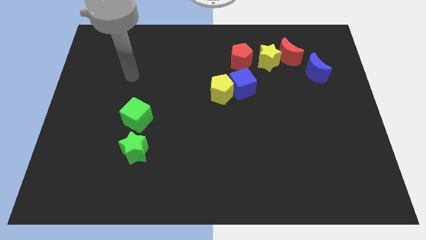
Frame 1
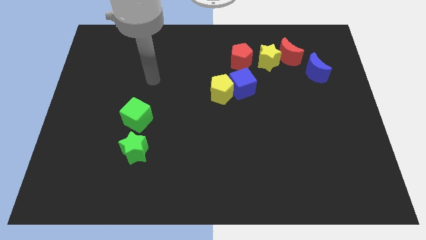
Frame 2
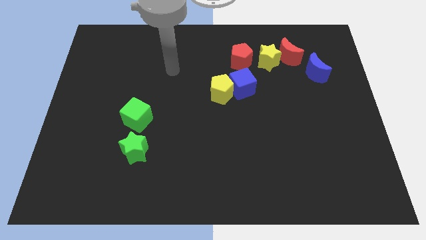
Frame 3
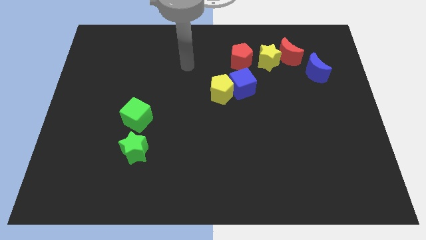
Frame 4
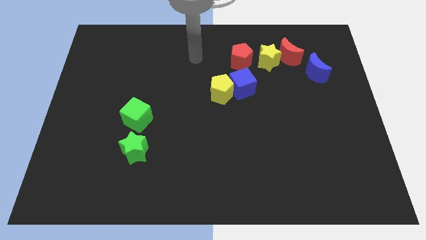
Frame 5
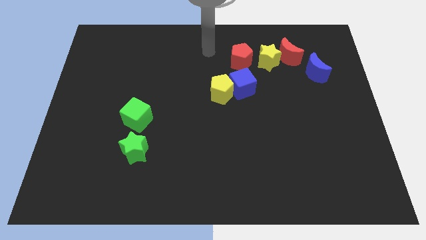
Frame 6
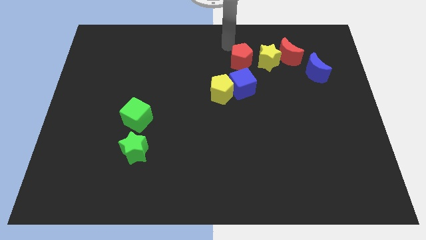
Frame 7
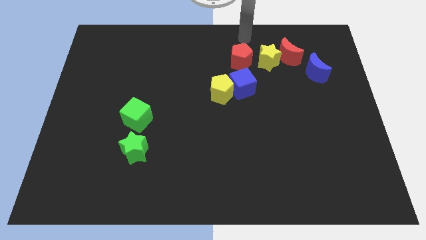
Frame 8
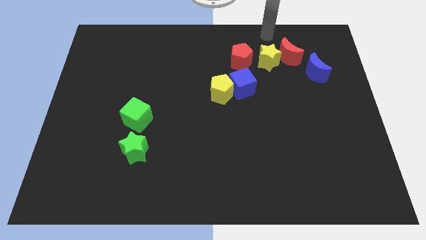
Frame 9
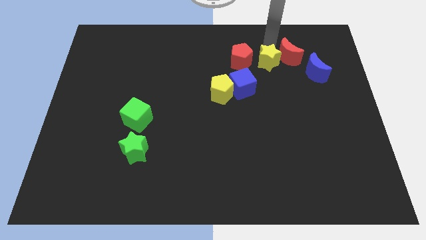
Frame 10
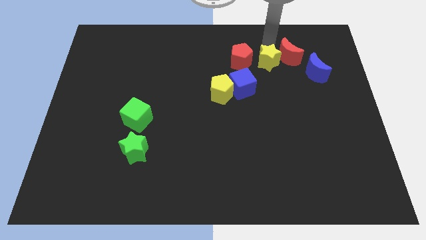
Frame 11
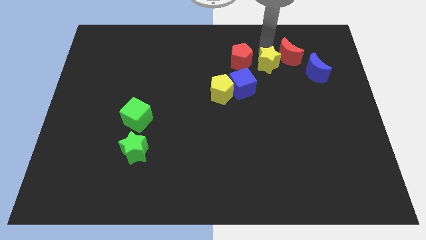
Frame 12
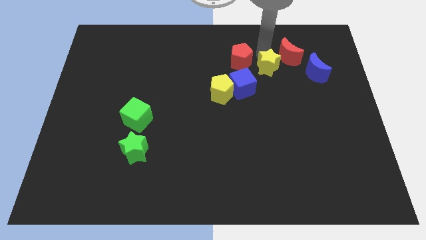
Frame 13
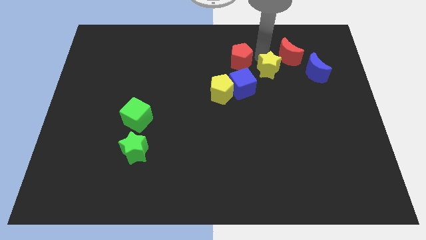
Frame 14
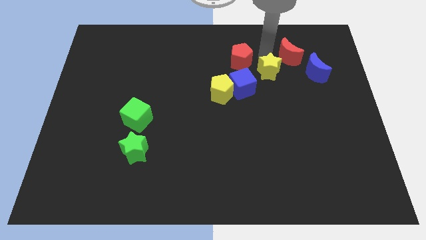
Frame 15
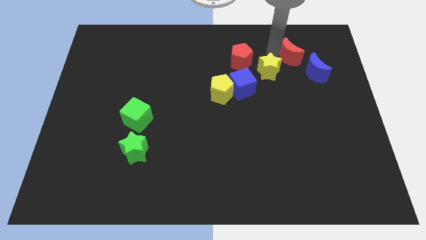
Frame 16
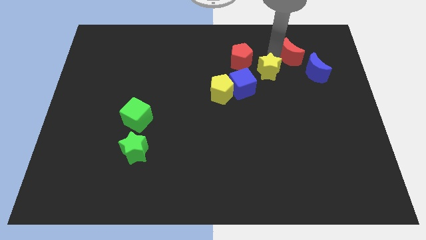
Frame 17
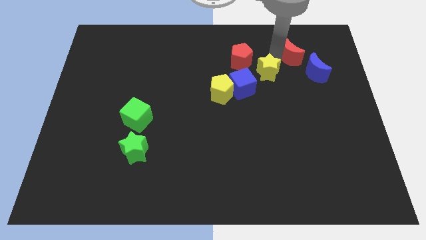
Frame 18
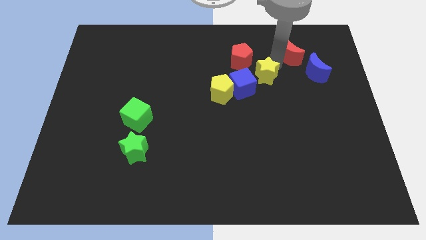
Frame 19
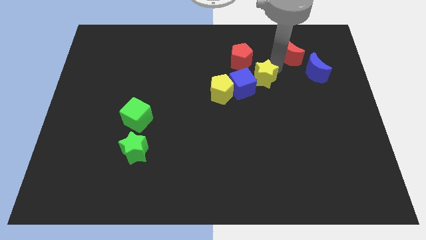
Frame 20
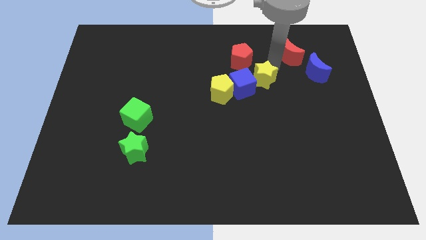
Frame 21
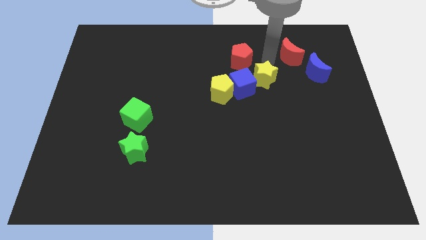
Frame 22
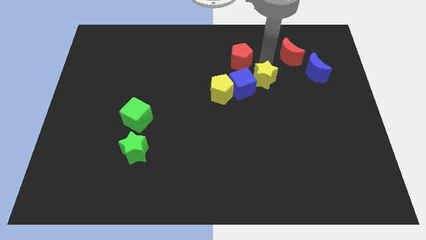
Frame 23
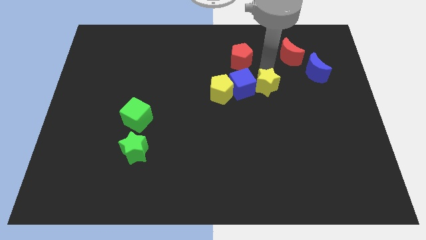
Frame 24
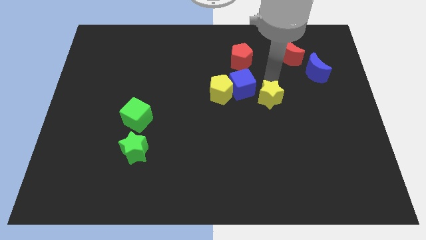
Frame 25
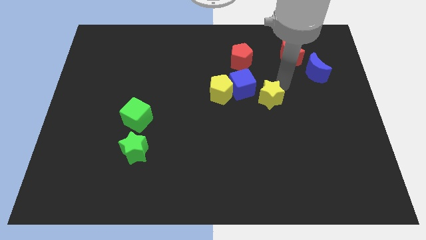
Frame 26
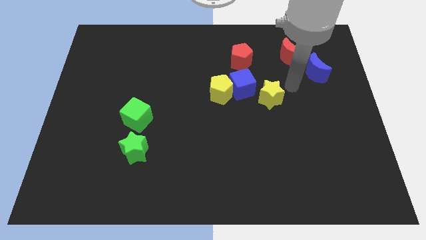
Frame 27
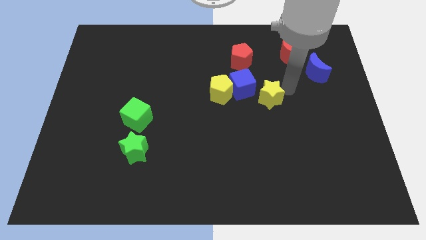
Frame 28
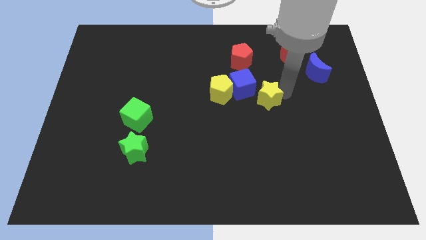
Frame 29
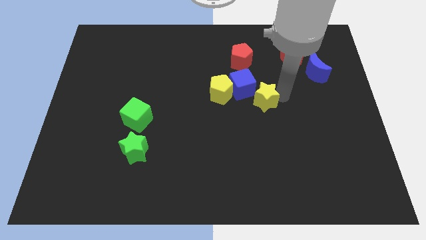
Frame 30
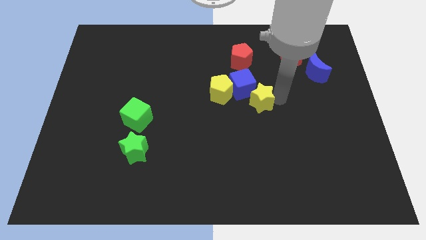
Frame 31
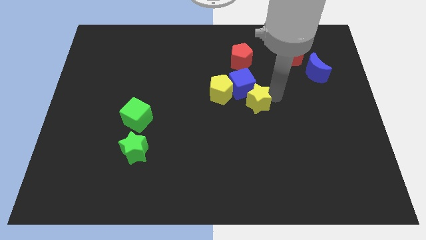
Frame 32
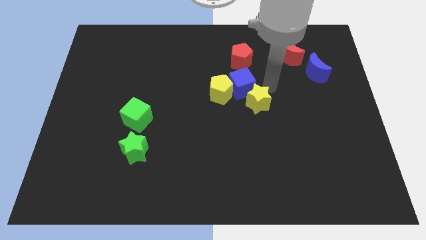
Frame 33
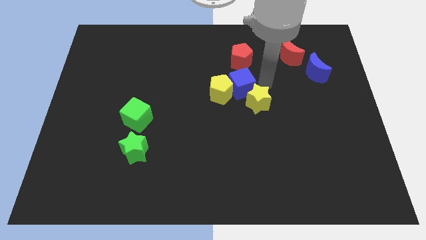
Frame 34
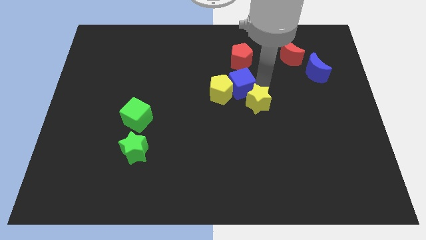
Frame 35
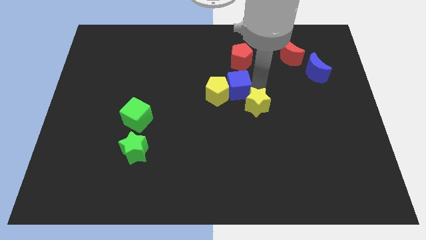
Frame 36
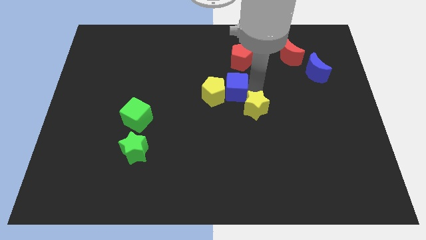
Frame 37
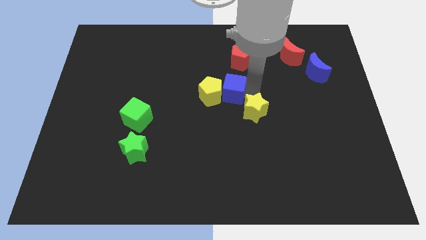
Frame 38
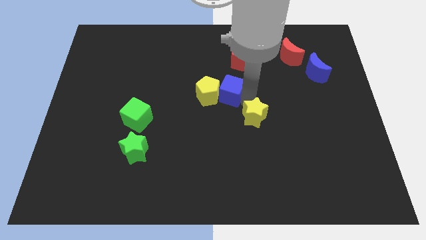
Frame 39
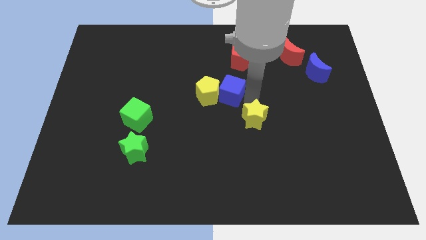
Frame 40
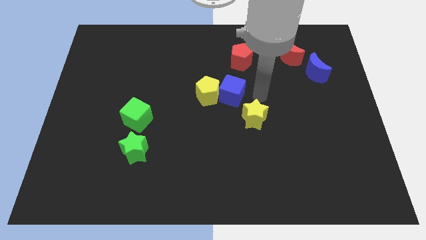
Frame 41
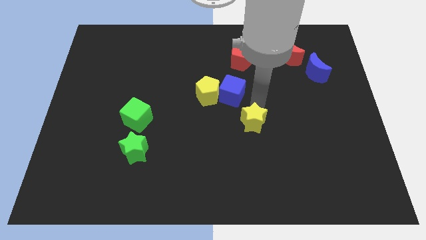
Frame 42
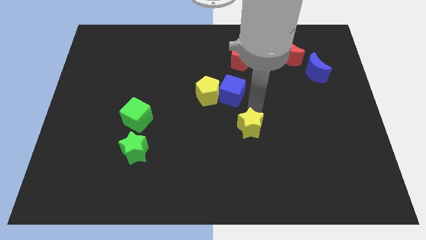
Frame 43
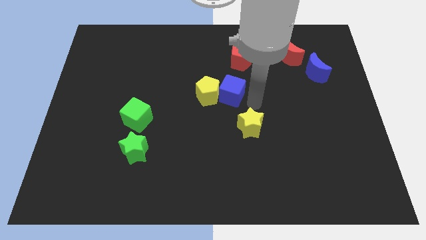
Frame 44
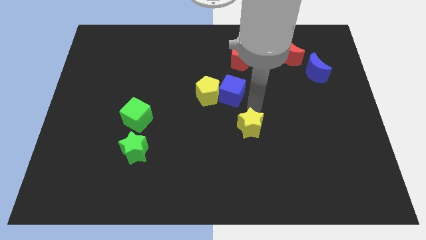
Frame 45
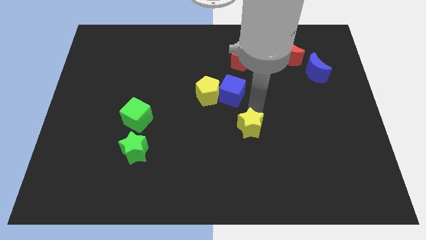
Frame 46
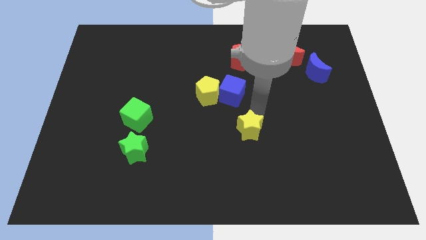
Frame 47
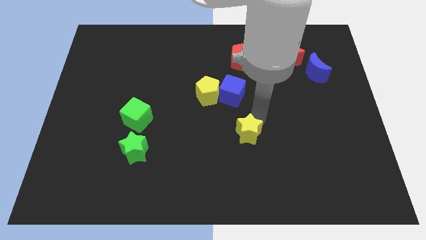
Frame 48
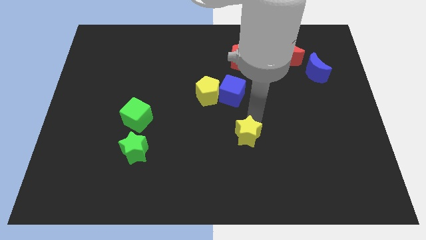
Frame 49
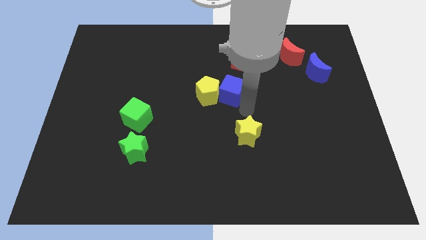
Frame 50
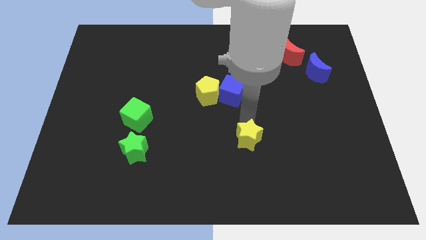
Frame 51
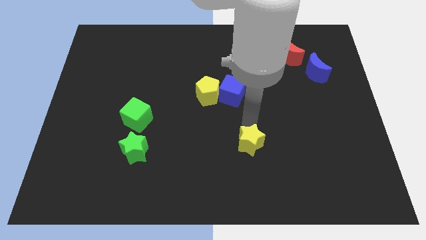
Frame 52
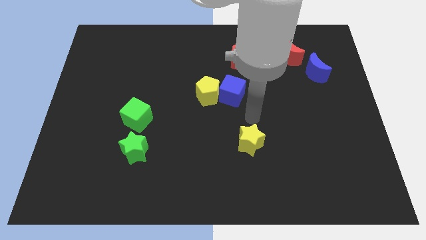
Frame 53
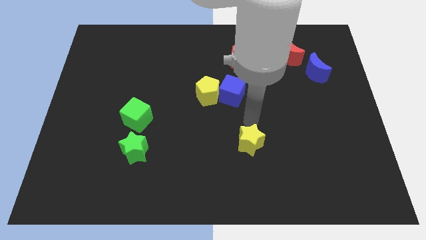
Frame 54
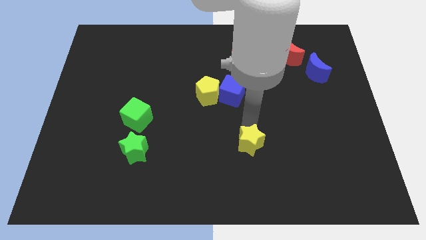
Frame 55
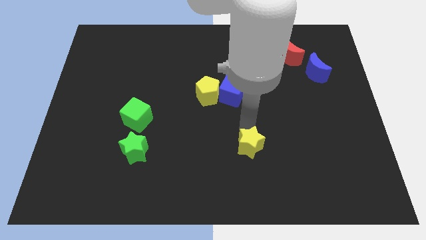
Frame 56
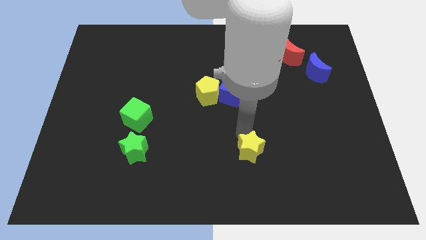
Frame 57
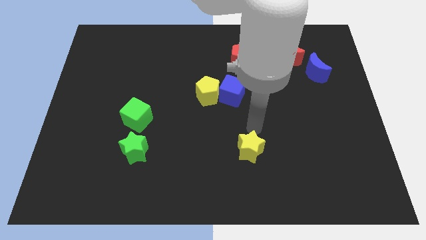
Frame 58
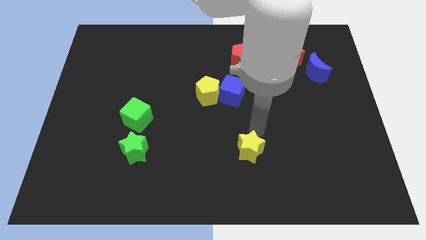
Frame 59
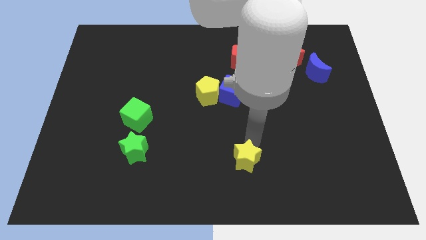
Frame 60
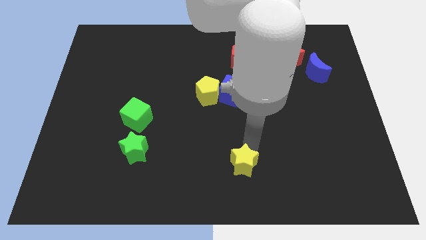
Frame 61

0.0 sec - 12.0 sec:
push the yellow star to the bottom side
